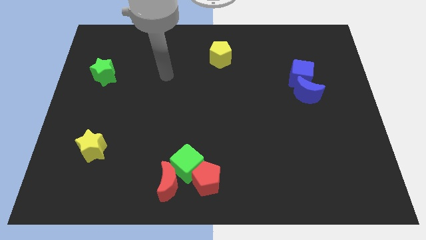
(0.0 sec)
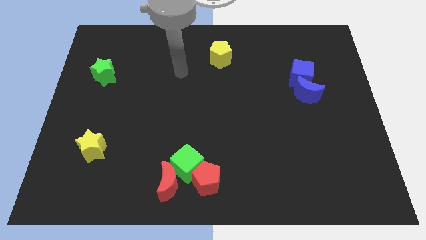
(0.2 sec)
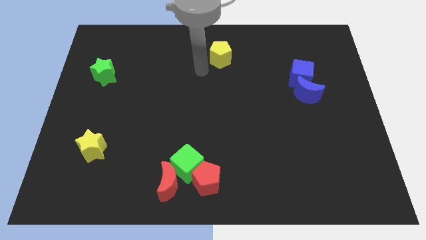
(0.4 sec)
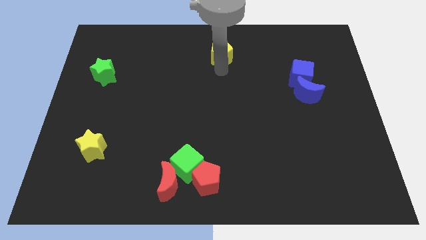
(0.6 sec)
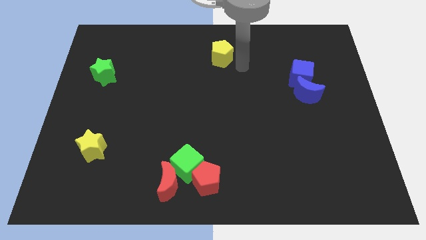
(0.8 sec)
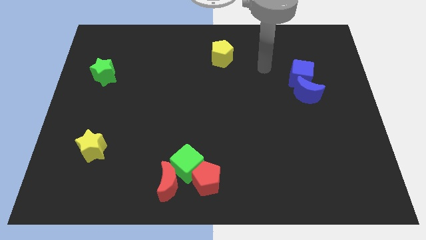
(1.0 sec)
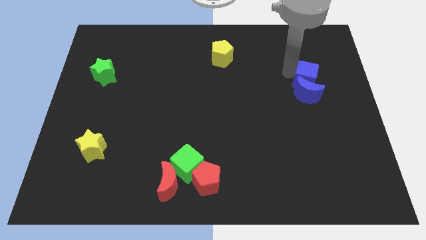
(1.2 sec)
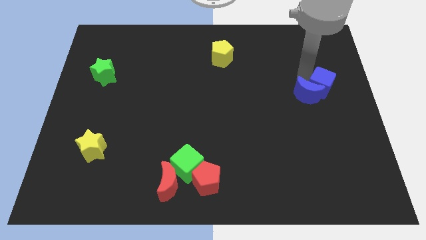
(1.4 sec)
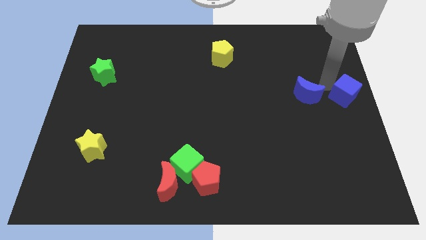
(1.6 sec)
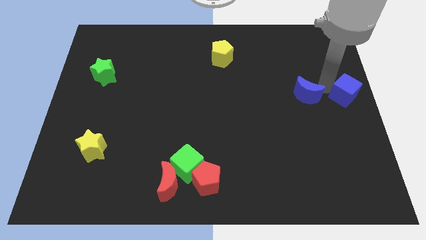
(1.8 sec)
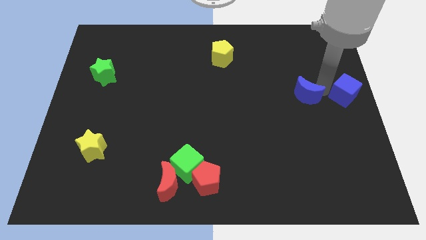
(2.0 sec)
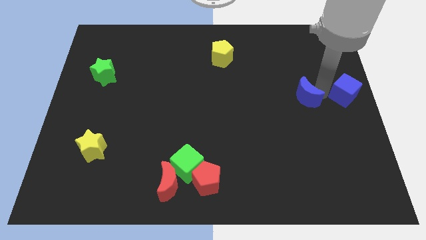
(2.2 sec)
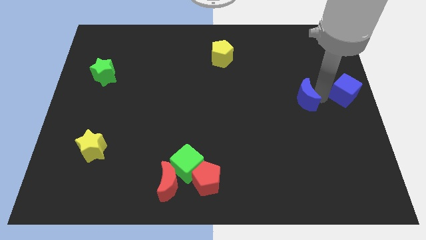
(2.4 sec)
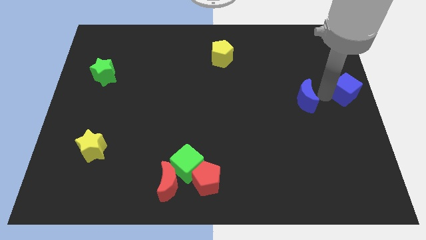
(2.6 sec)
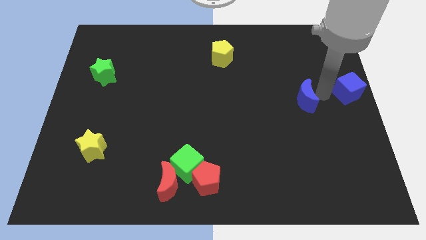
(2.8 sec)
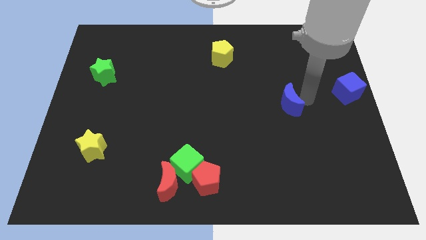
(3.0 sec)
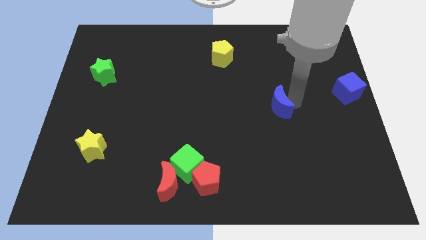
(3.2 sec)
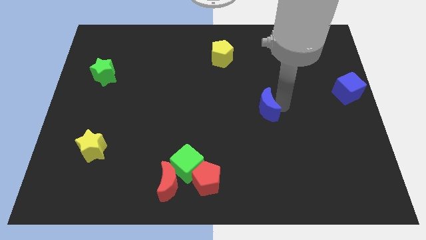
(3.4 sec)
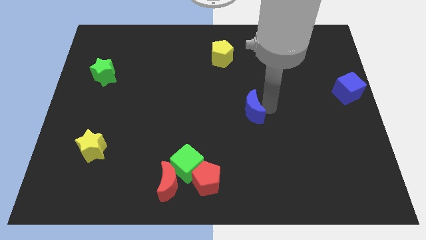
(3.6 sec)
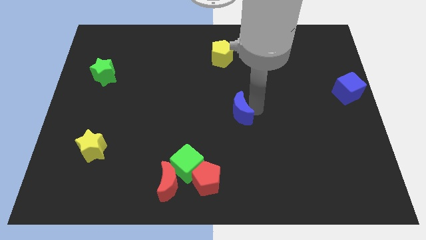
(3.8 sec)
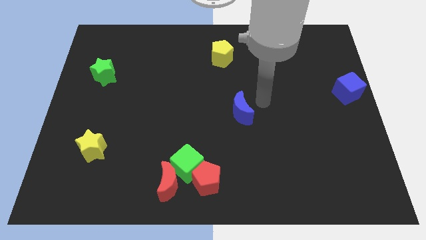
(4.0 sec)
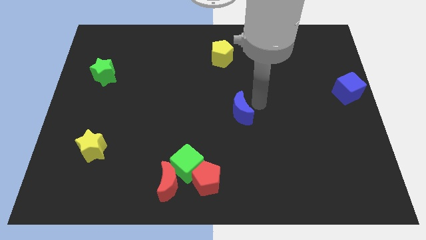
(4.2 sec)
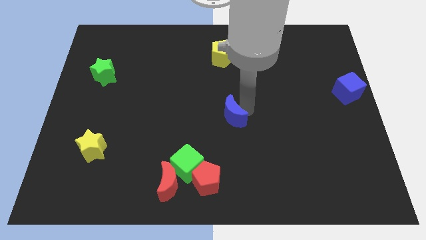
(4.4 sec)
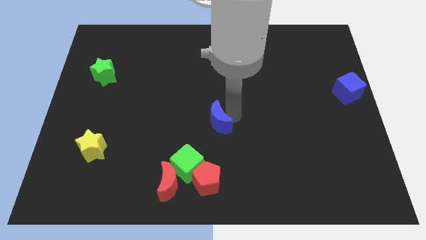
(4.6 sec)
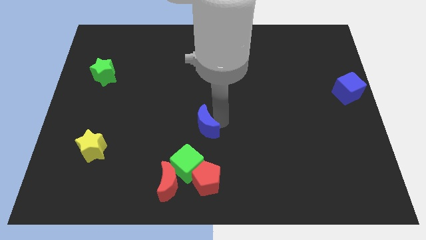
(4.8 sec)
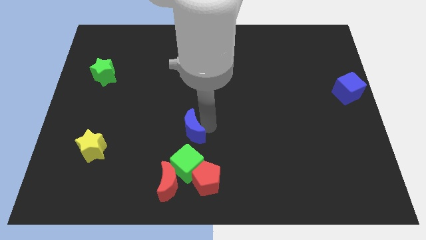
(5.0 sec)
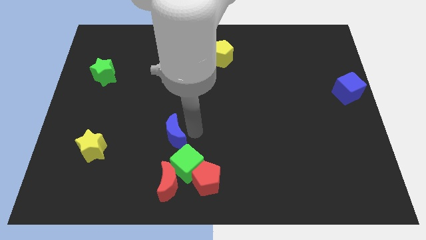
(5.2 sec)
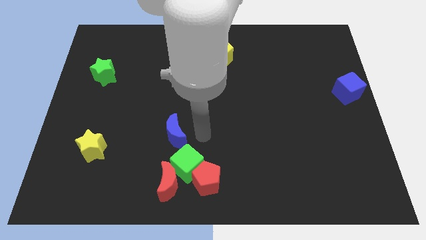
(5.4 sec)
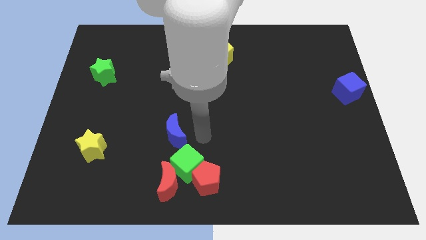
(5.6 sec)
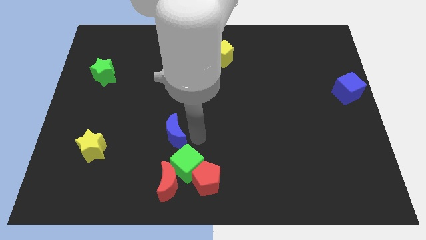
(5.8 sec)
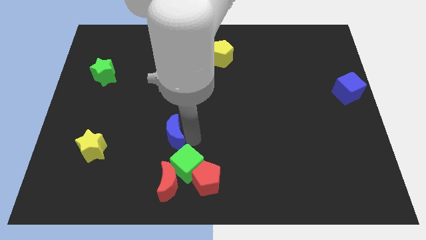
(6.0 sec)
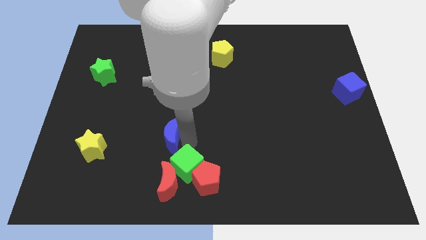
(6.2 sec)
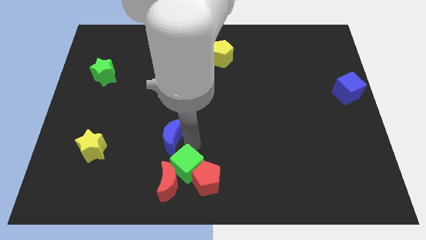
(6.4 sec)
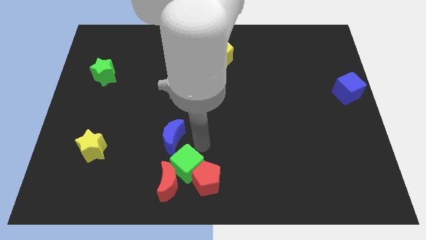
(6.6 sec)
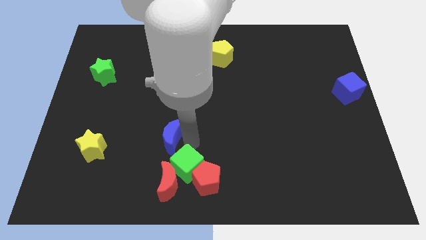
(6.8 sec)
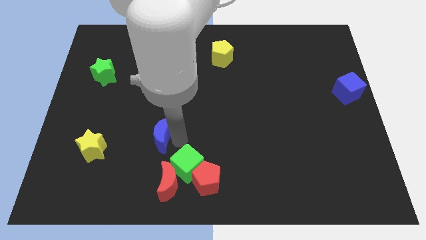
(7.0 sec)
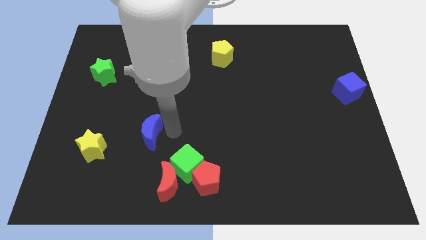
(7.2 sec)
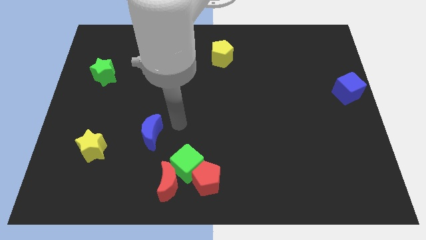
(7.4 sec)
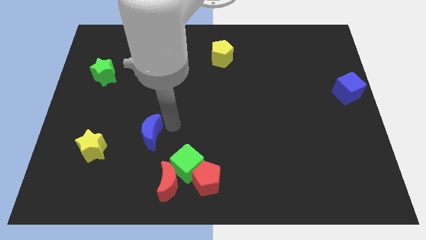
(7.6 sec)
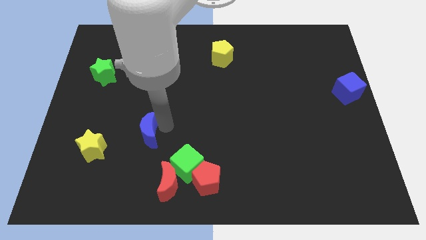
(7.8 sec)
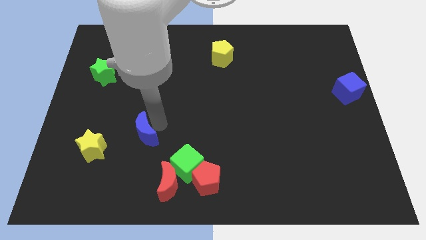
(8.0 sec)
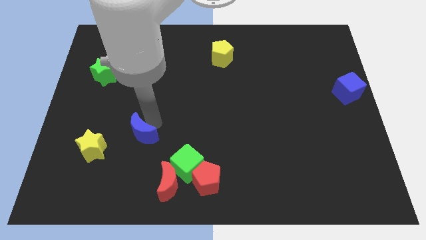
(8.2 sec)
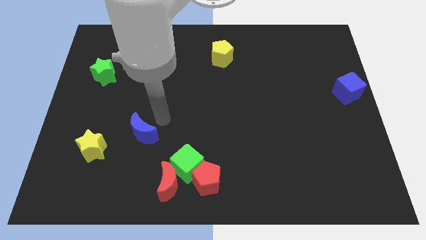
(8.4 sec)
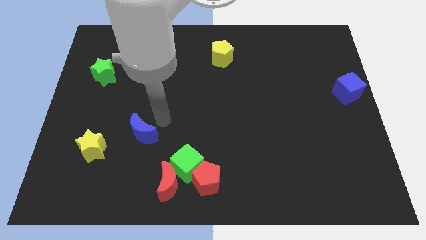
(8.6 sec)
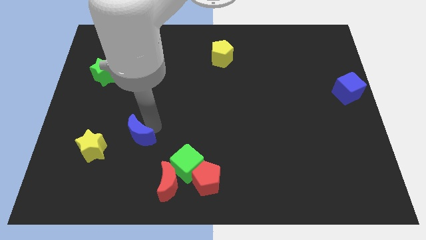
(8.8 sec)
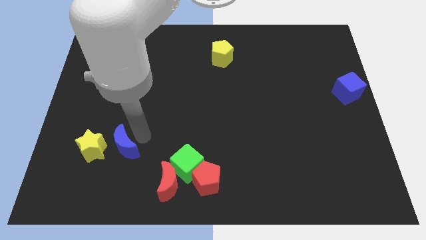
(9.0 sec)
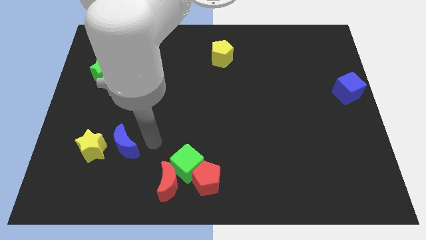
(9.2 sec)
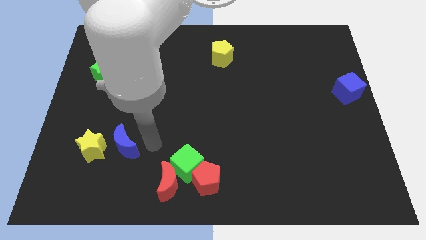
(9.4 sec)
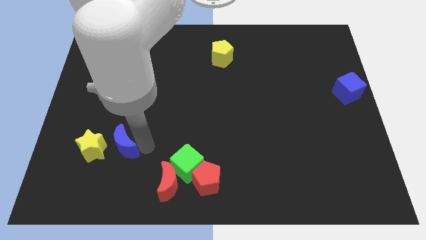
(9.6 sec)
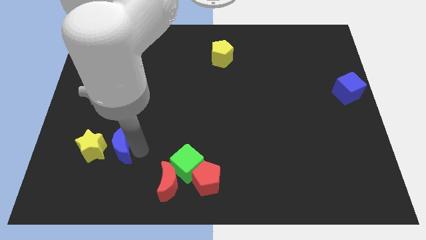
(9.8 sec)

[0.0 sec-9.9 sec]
move the blue moon close to the yellow star

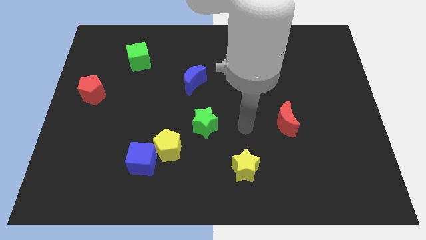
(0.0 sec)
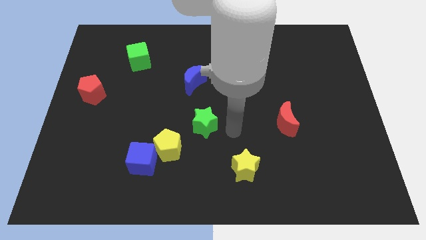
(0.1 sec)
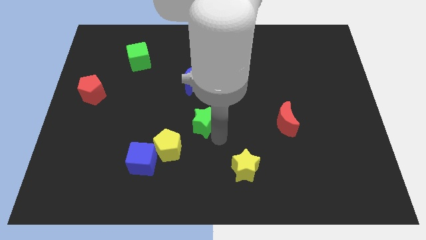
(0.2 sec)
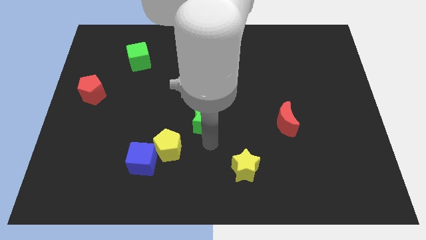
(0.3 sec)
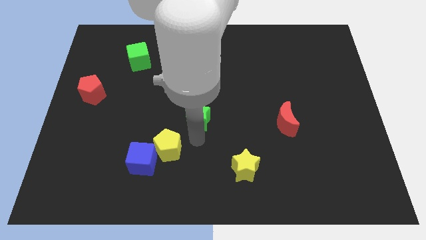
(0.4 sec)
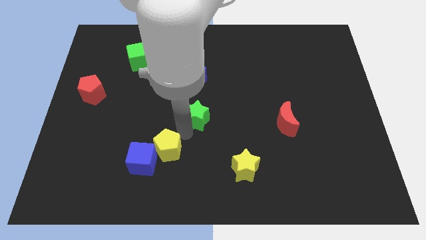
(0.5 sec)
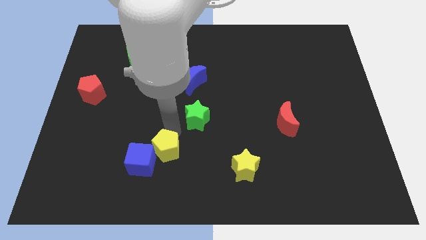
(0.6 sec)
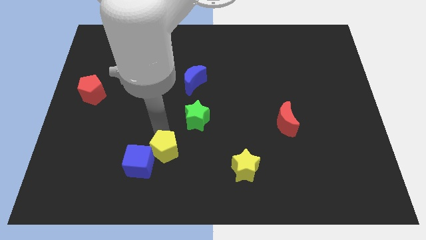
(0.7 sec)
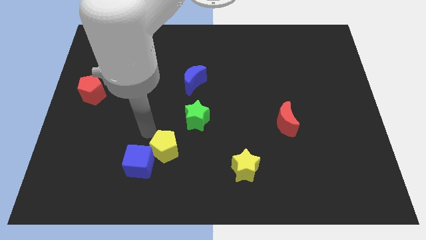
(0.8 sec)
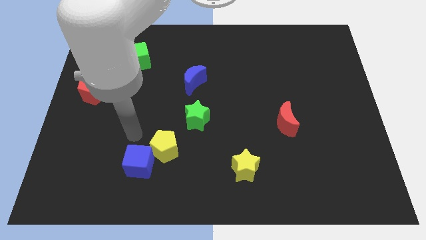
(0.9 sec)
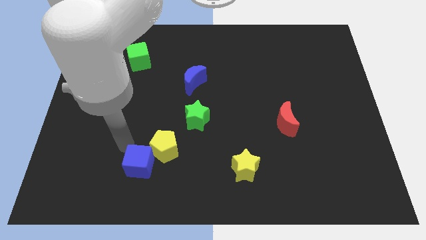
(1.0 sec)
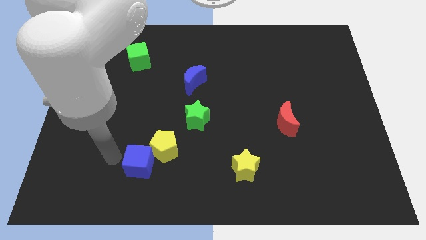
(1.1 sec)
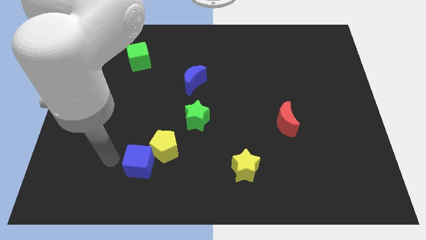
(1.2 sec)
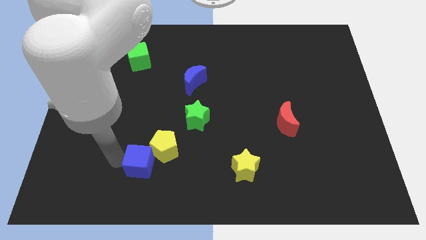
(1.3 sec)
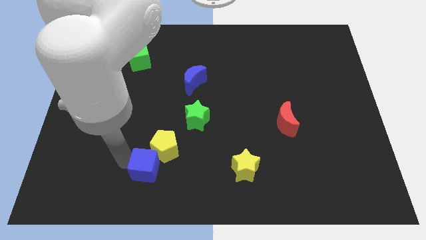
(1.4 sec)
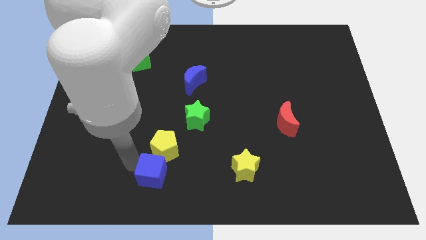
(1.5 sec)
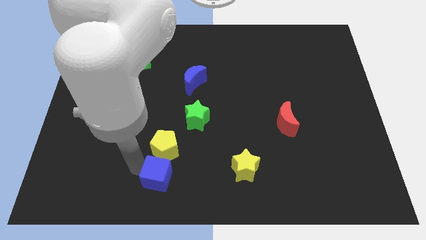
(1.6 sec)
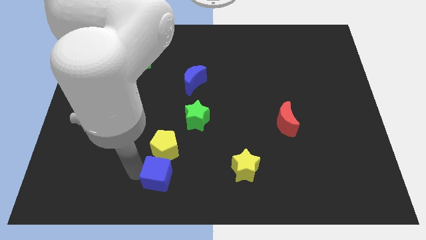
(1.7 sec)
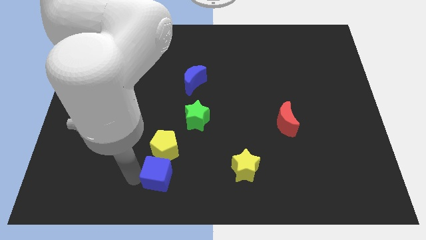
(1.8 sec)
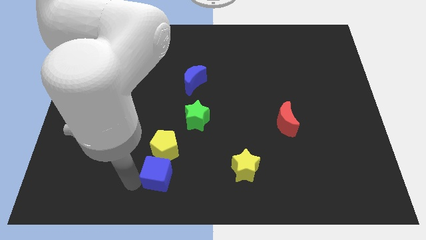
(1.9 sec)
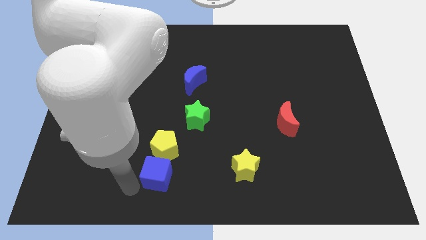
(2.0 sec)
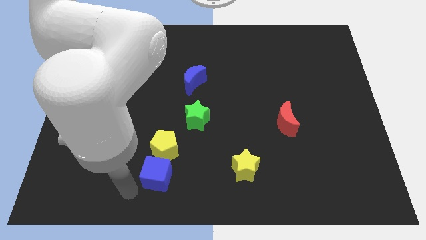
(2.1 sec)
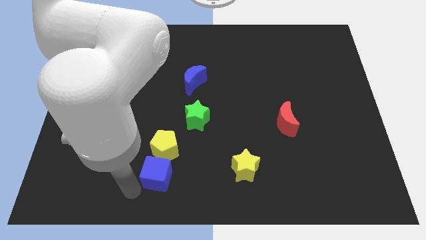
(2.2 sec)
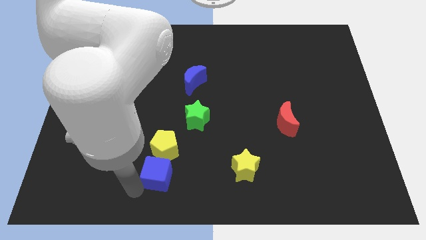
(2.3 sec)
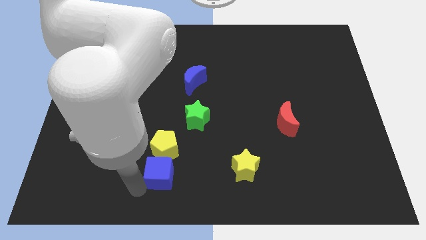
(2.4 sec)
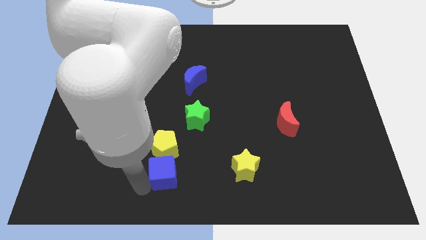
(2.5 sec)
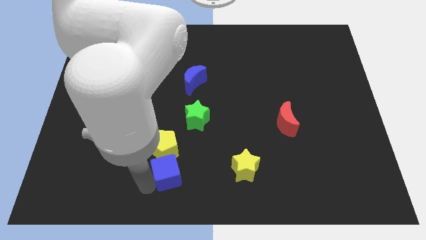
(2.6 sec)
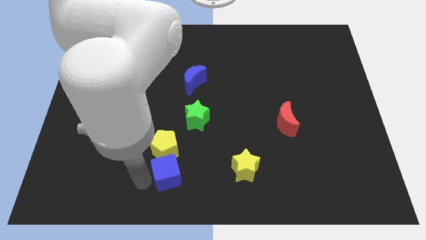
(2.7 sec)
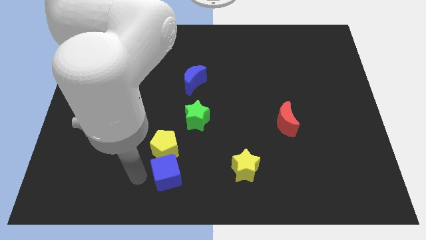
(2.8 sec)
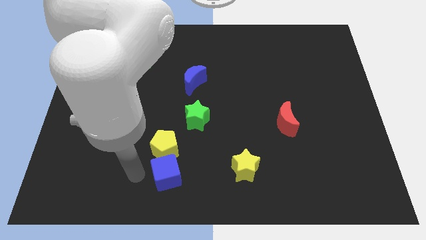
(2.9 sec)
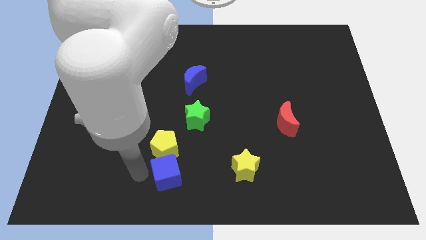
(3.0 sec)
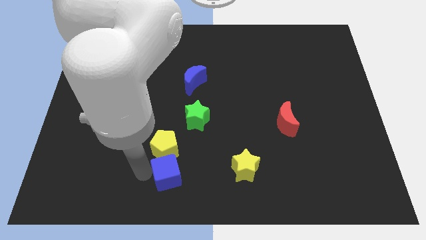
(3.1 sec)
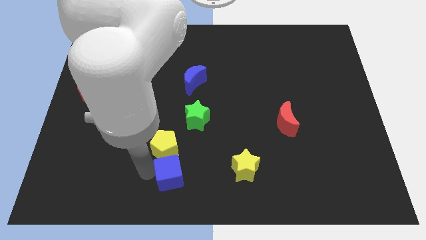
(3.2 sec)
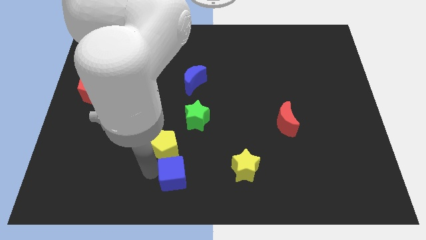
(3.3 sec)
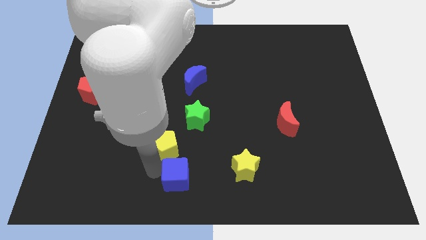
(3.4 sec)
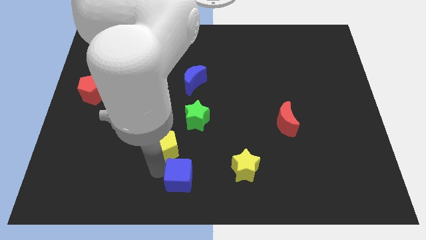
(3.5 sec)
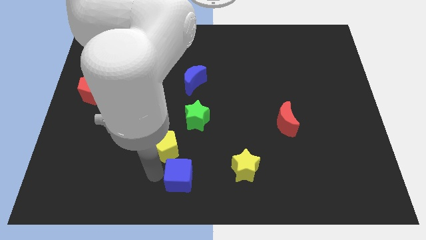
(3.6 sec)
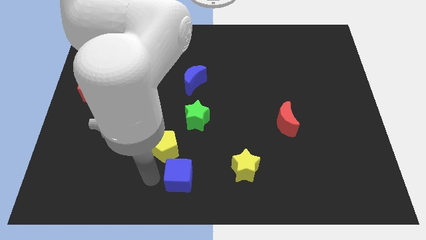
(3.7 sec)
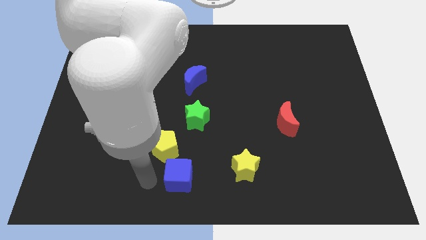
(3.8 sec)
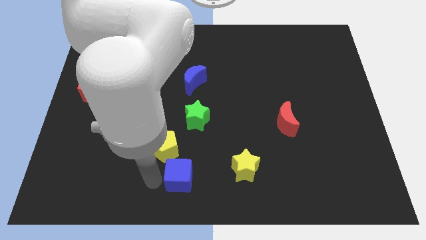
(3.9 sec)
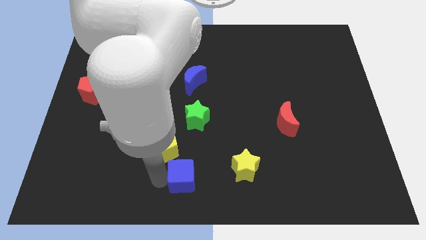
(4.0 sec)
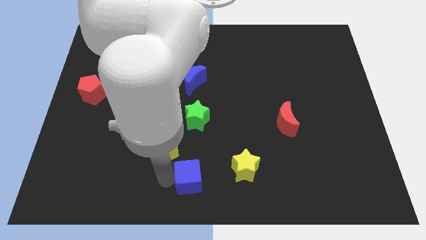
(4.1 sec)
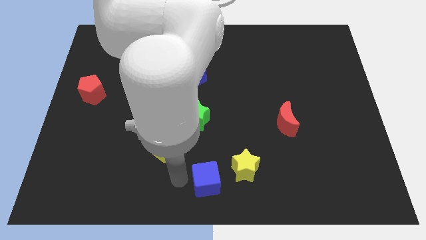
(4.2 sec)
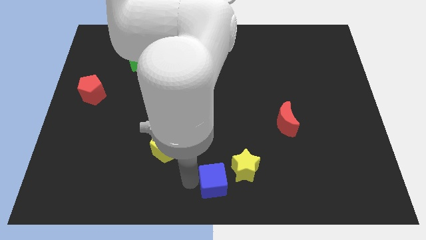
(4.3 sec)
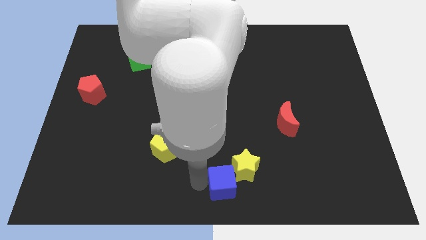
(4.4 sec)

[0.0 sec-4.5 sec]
move the blue cube close to the yellow star
